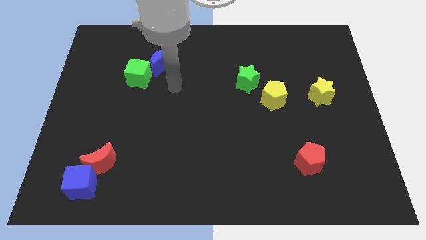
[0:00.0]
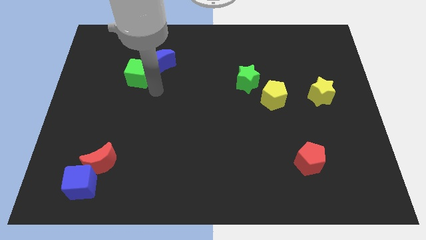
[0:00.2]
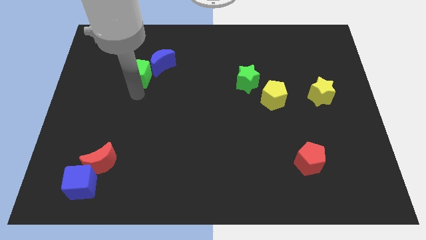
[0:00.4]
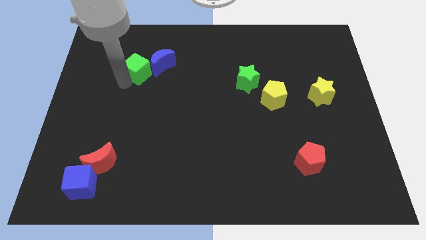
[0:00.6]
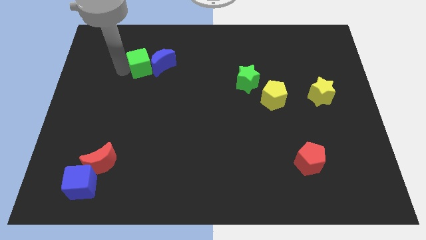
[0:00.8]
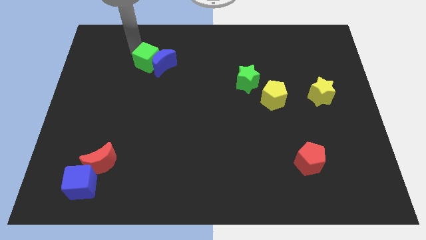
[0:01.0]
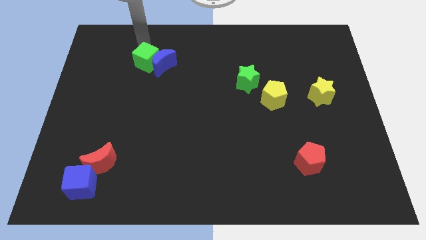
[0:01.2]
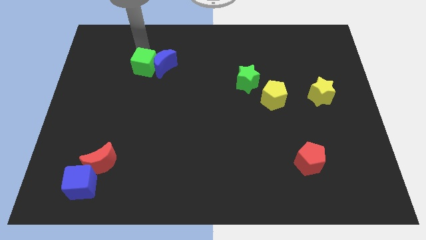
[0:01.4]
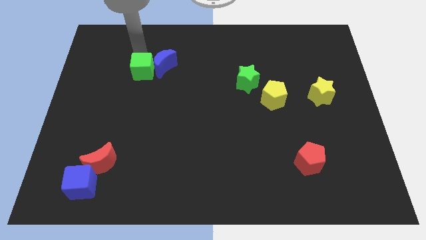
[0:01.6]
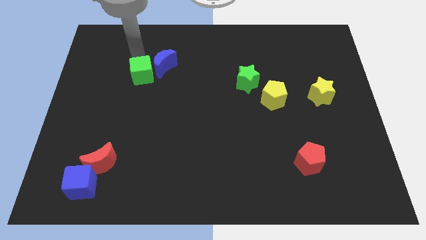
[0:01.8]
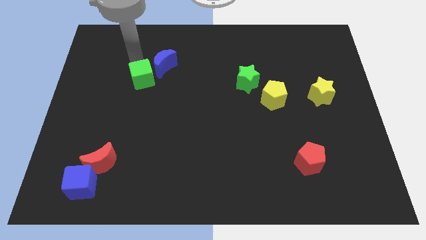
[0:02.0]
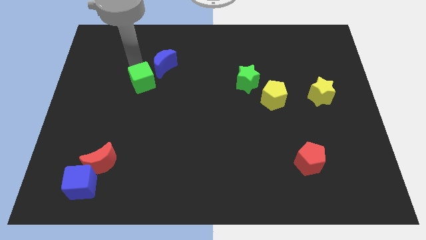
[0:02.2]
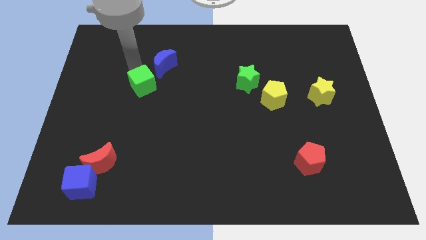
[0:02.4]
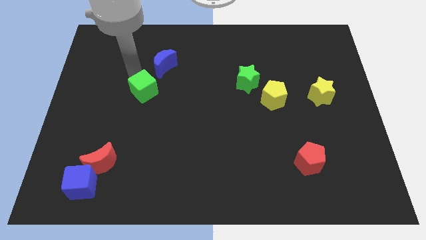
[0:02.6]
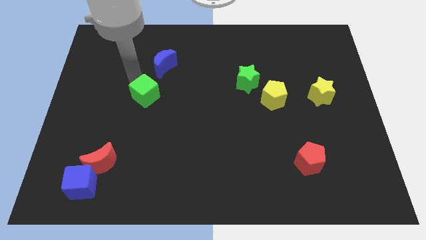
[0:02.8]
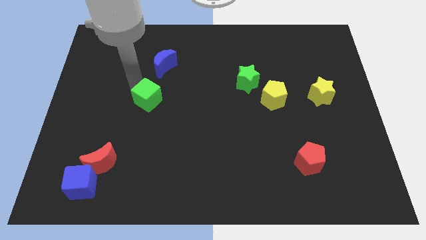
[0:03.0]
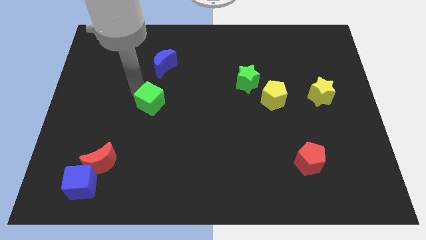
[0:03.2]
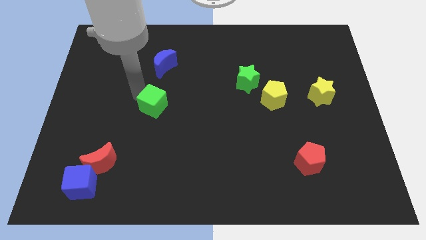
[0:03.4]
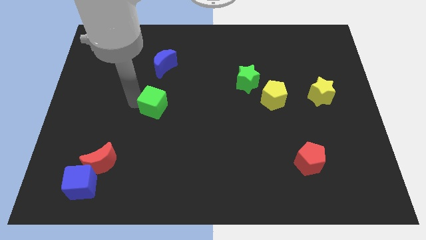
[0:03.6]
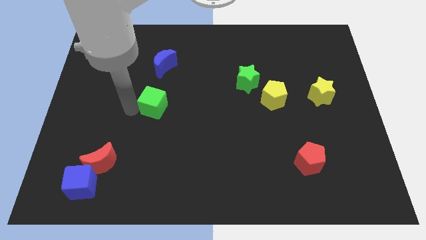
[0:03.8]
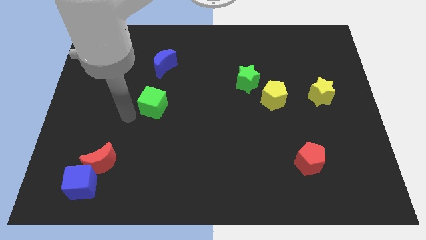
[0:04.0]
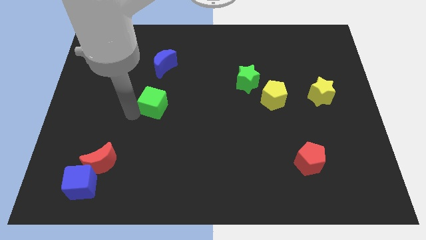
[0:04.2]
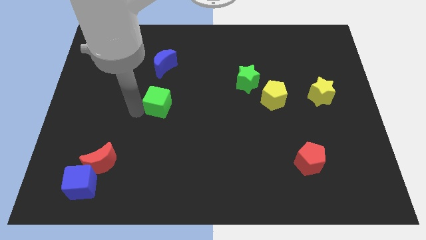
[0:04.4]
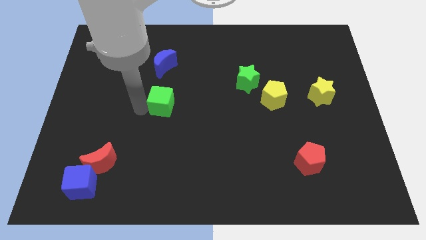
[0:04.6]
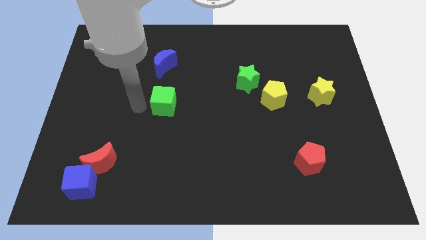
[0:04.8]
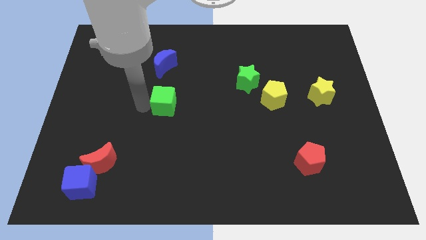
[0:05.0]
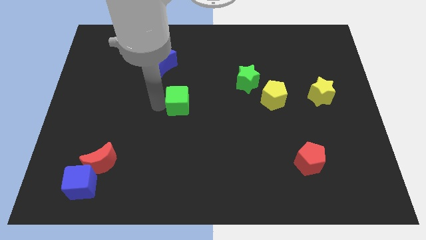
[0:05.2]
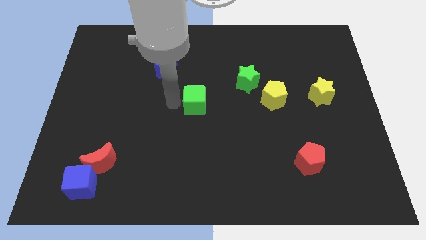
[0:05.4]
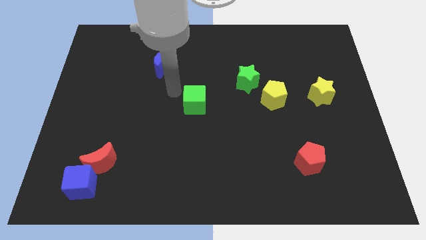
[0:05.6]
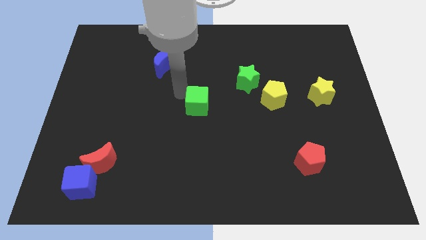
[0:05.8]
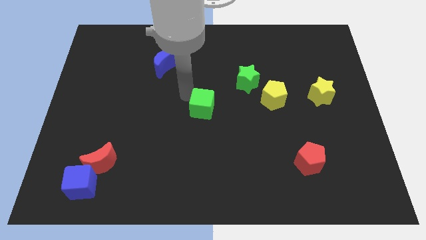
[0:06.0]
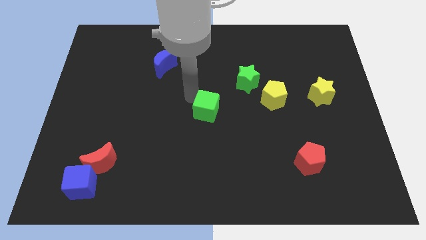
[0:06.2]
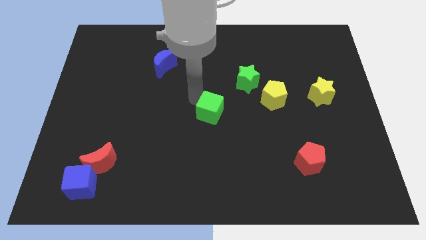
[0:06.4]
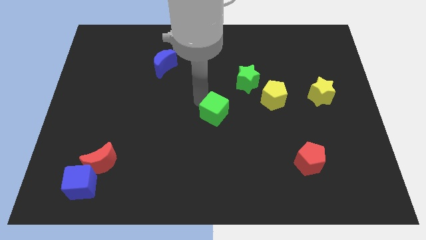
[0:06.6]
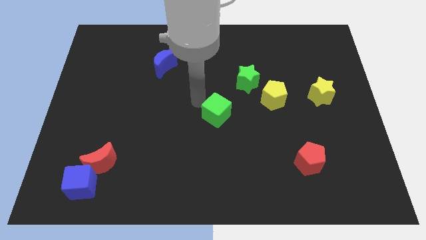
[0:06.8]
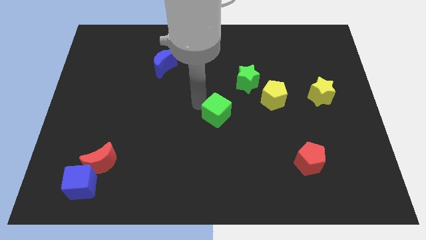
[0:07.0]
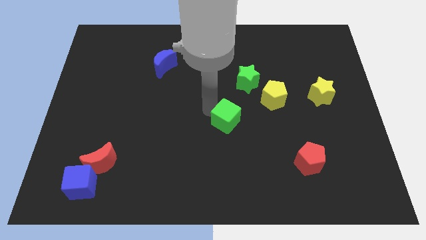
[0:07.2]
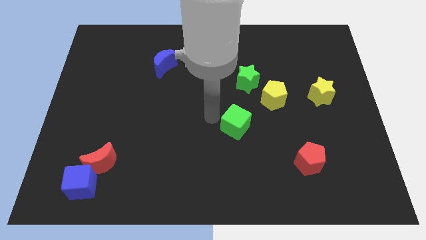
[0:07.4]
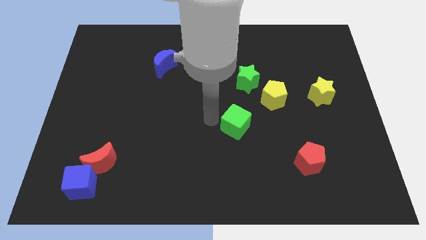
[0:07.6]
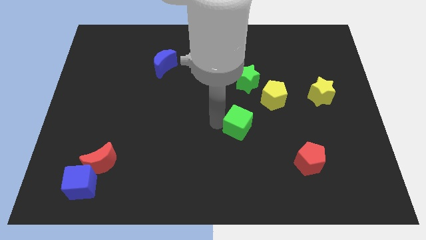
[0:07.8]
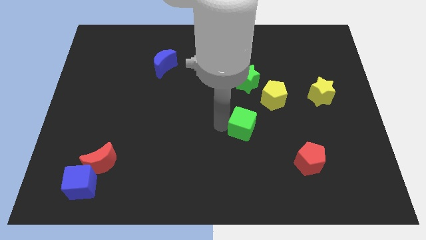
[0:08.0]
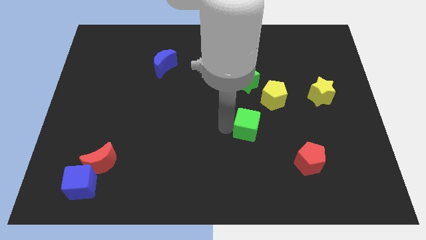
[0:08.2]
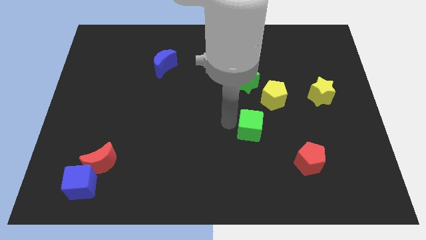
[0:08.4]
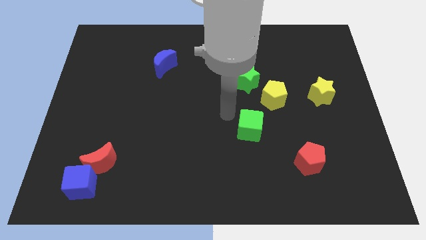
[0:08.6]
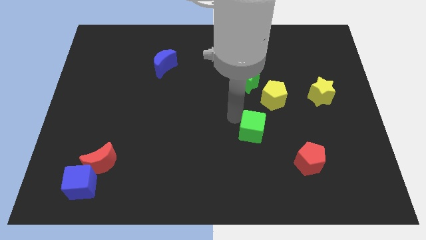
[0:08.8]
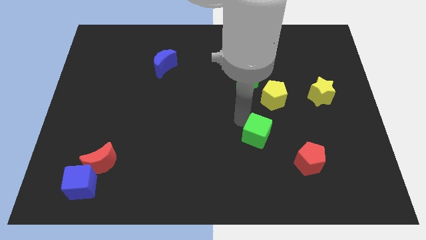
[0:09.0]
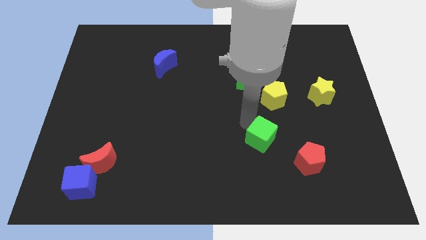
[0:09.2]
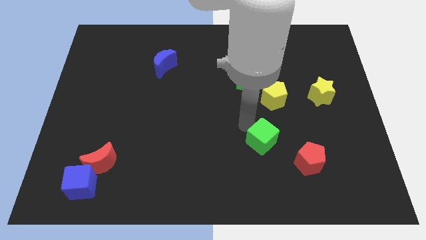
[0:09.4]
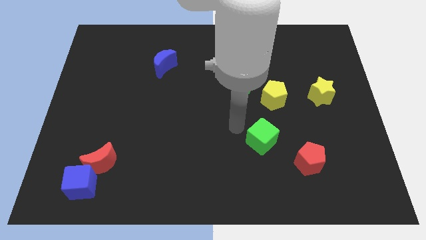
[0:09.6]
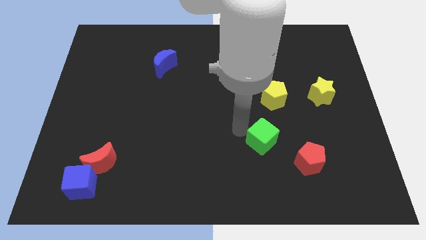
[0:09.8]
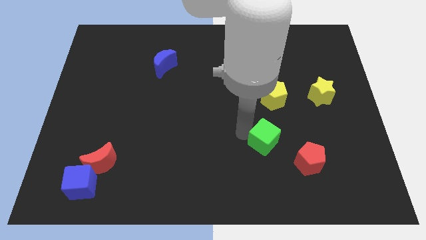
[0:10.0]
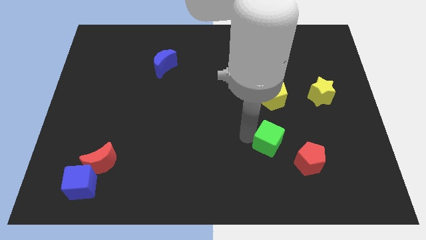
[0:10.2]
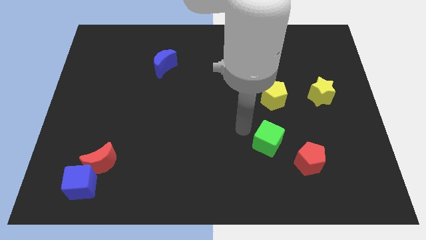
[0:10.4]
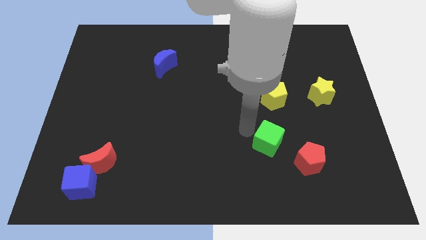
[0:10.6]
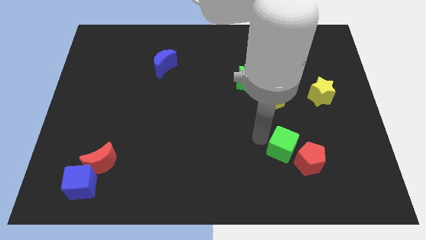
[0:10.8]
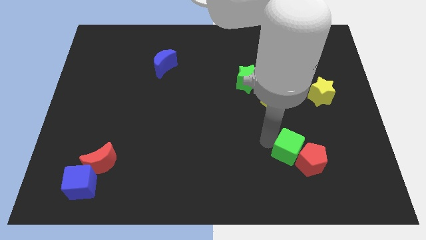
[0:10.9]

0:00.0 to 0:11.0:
slide the green cube next to the red pentagon
